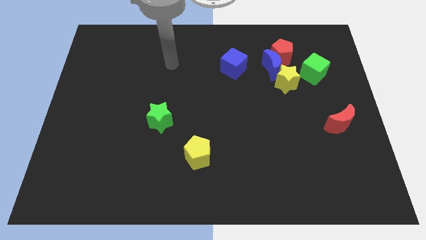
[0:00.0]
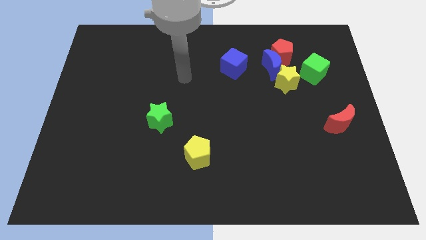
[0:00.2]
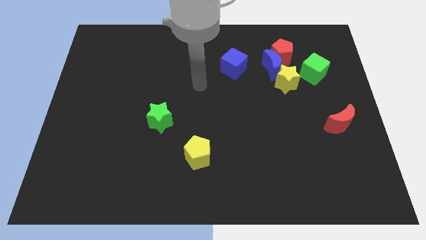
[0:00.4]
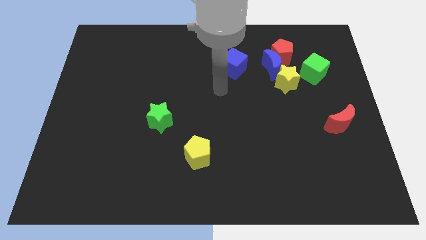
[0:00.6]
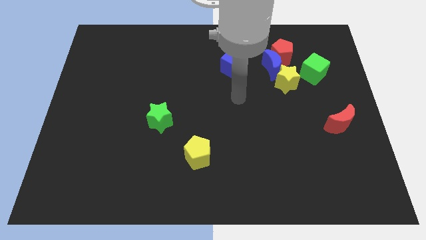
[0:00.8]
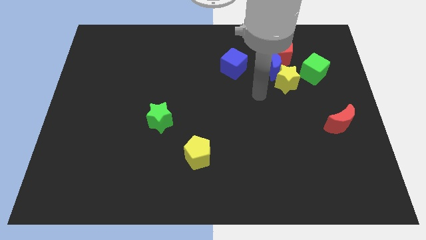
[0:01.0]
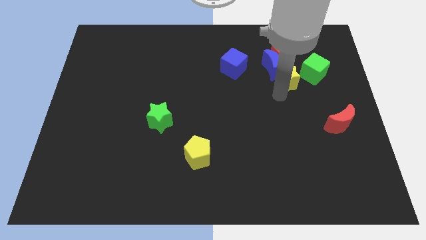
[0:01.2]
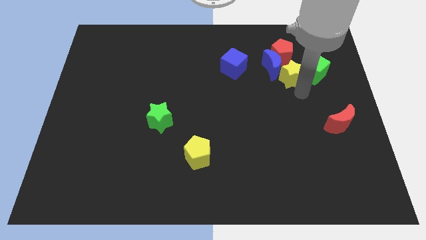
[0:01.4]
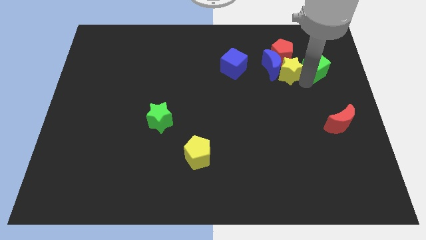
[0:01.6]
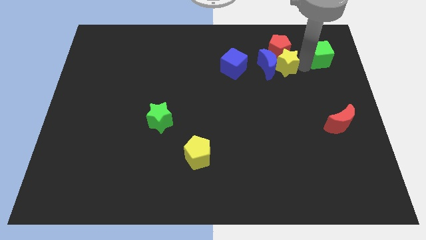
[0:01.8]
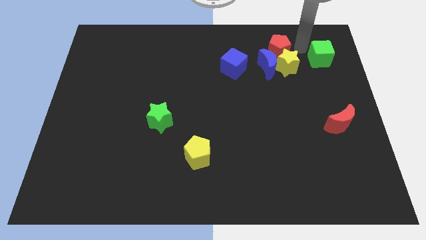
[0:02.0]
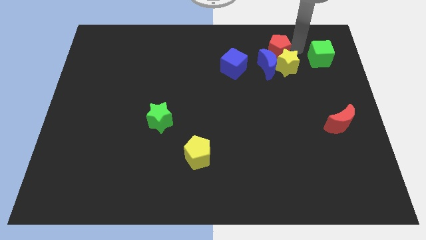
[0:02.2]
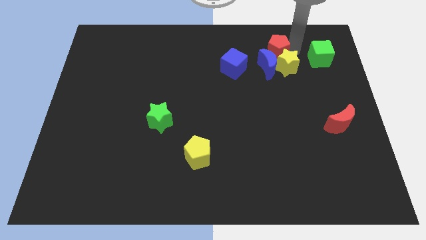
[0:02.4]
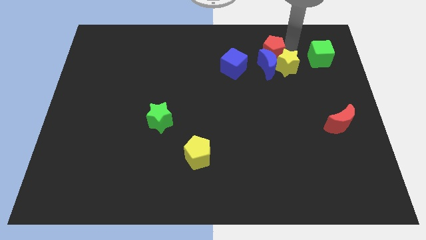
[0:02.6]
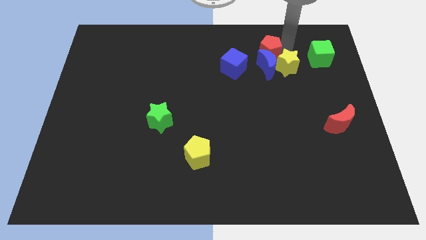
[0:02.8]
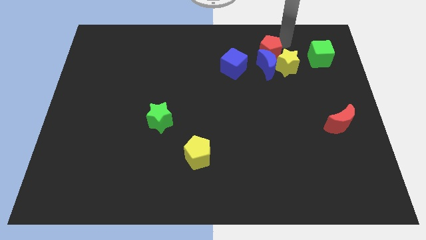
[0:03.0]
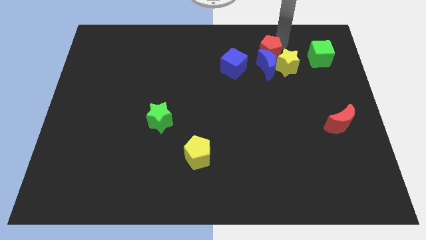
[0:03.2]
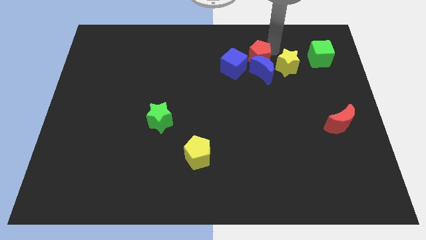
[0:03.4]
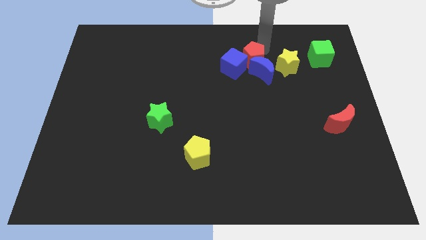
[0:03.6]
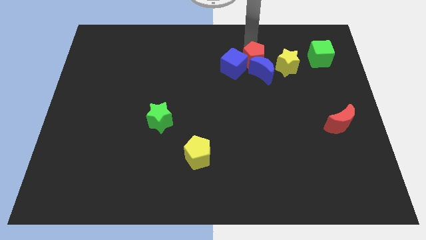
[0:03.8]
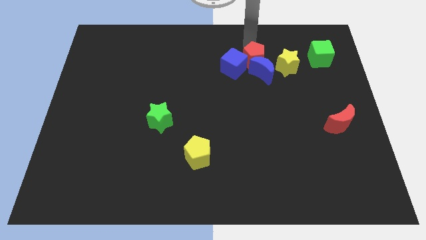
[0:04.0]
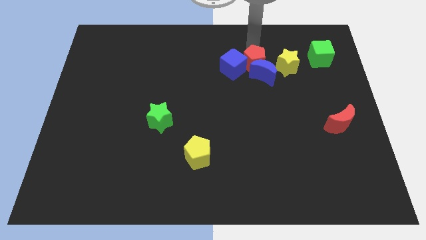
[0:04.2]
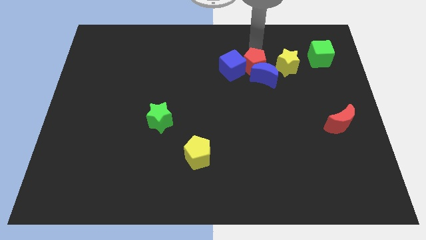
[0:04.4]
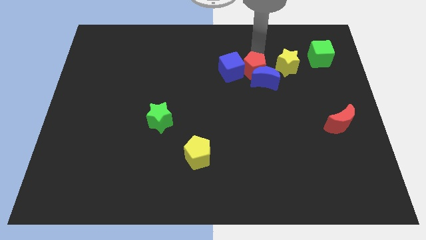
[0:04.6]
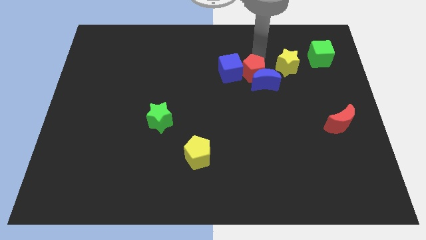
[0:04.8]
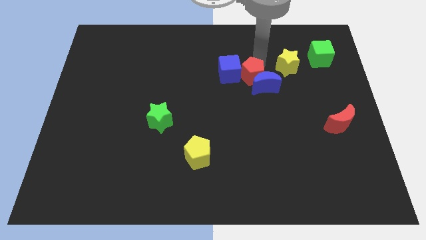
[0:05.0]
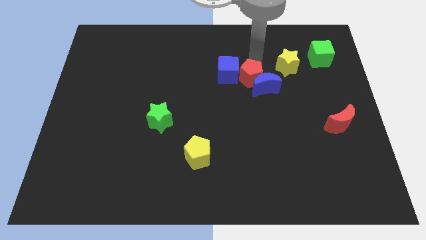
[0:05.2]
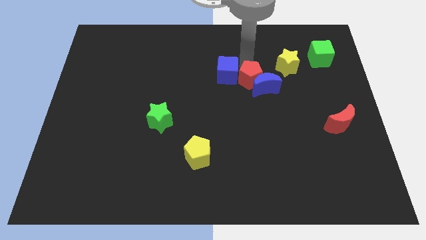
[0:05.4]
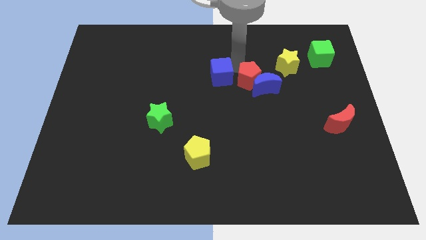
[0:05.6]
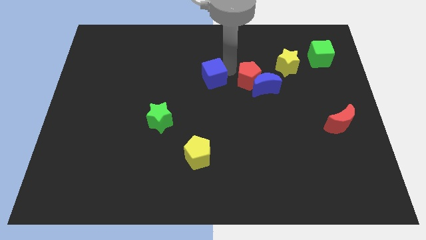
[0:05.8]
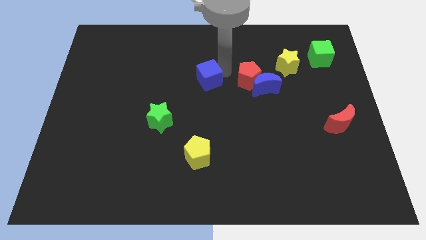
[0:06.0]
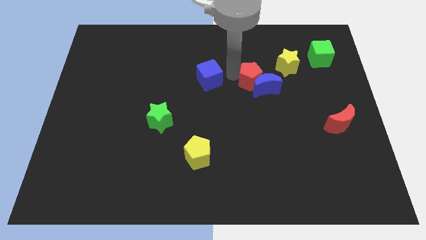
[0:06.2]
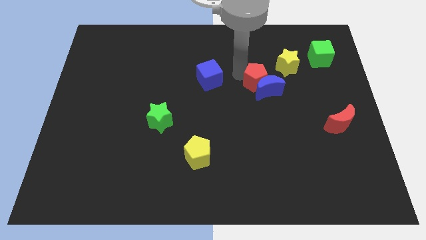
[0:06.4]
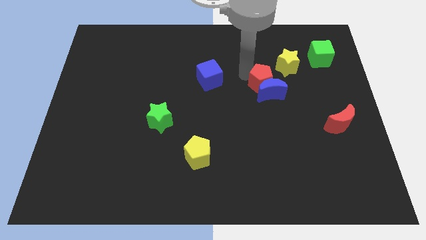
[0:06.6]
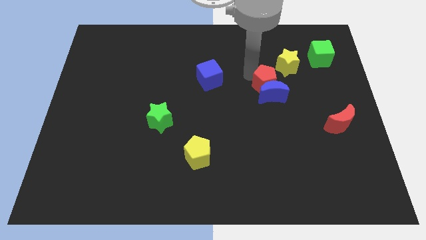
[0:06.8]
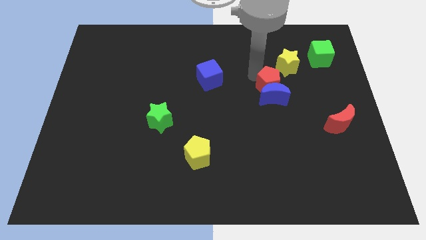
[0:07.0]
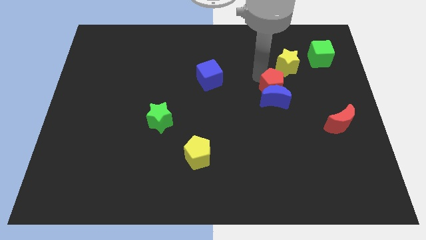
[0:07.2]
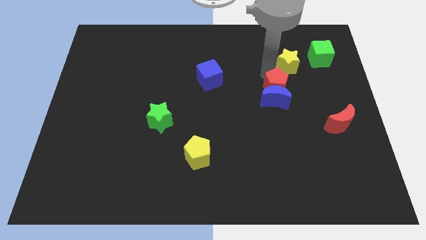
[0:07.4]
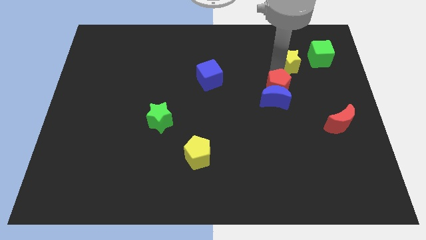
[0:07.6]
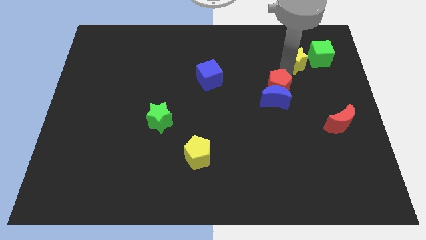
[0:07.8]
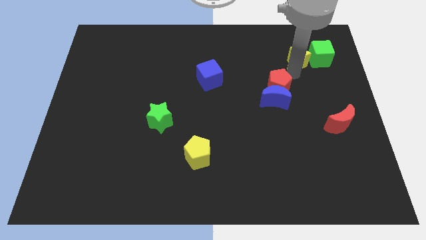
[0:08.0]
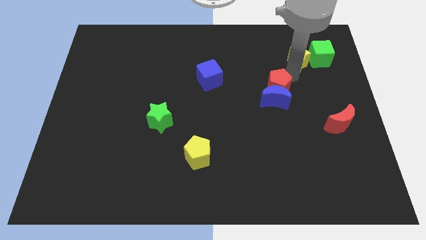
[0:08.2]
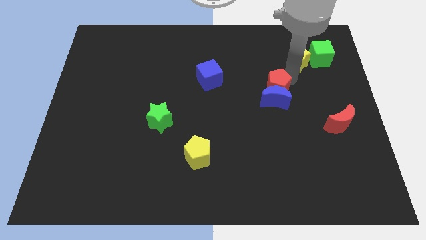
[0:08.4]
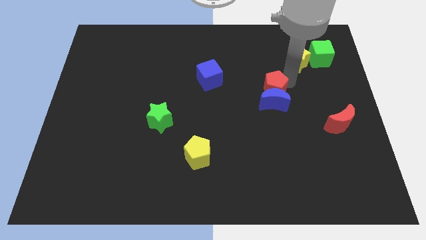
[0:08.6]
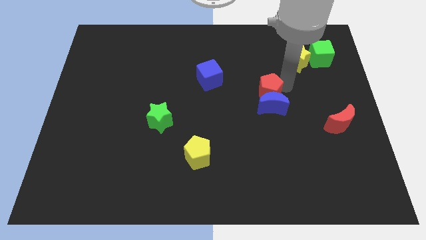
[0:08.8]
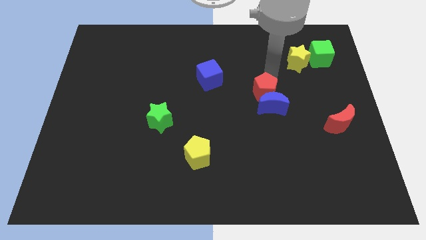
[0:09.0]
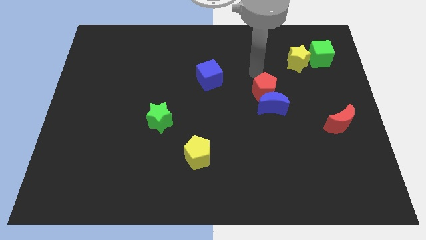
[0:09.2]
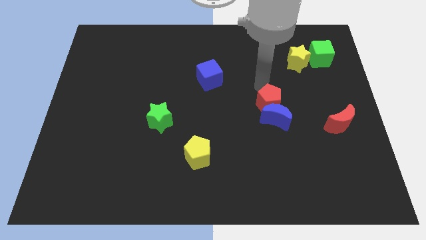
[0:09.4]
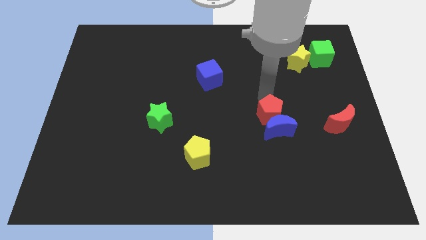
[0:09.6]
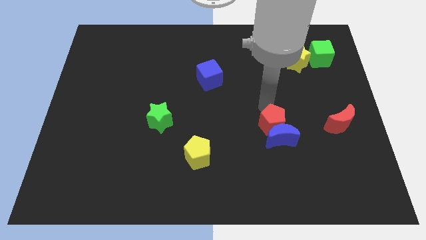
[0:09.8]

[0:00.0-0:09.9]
move the red pentagon downwards

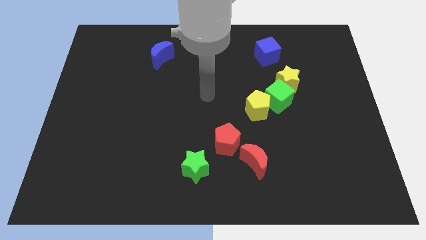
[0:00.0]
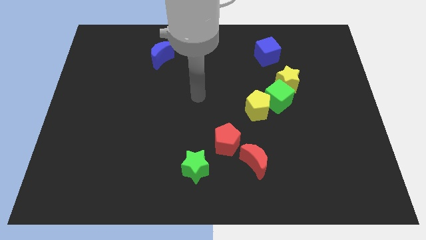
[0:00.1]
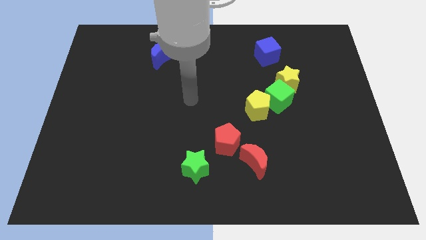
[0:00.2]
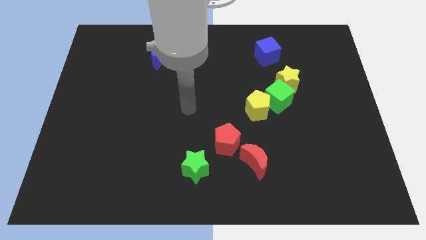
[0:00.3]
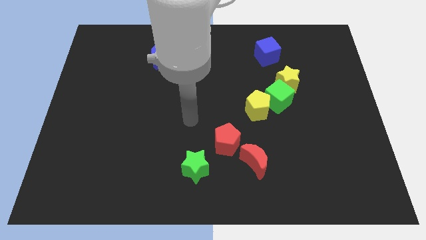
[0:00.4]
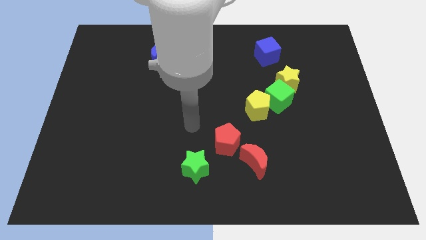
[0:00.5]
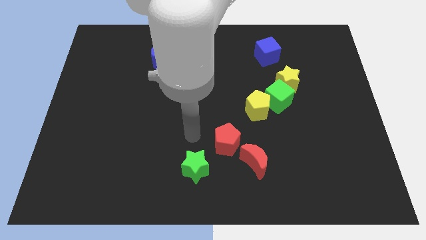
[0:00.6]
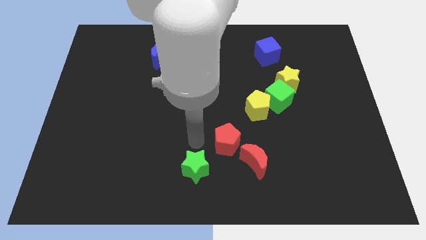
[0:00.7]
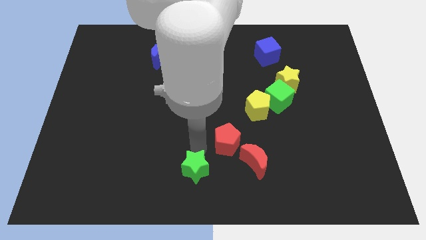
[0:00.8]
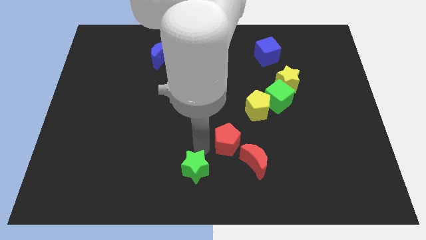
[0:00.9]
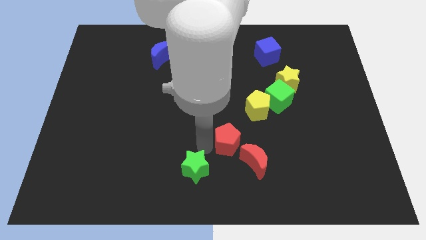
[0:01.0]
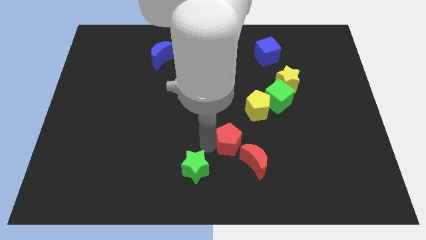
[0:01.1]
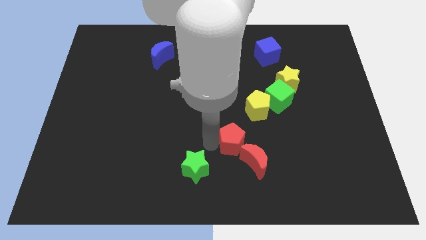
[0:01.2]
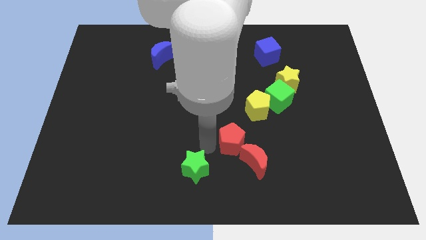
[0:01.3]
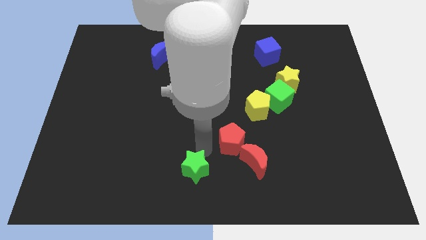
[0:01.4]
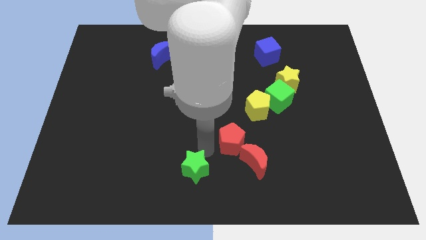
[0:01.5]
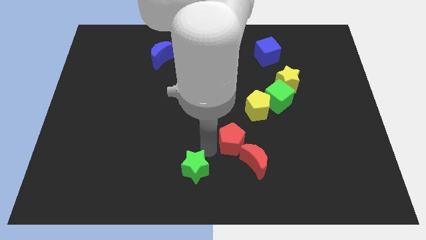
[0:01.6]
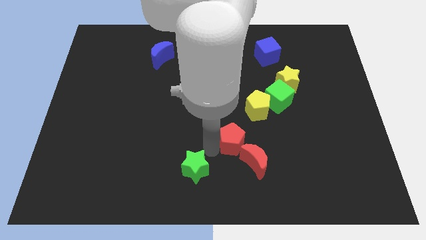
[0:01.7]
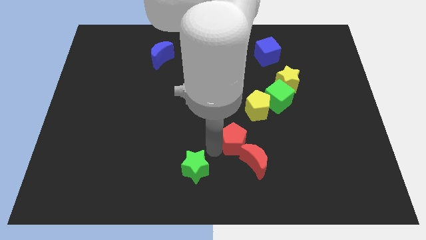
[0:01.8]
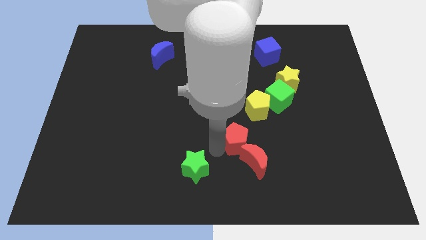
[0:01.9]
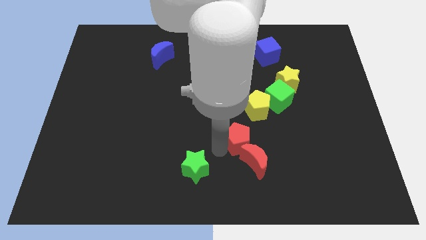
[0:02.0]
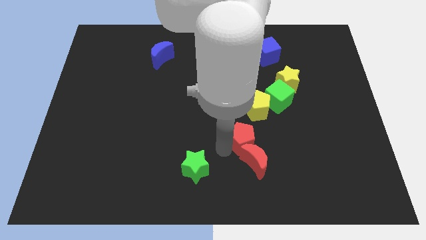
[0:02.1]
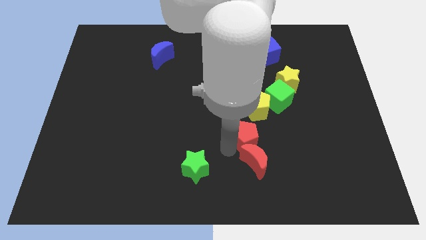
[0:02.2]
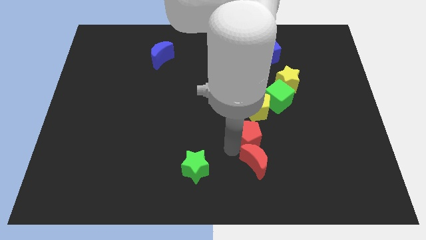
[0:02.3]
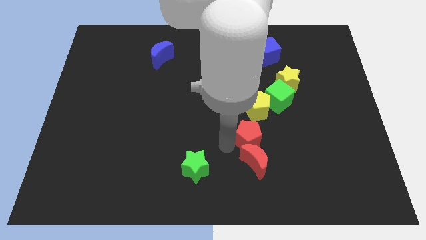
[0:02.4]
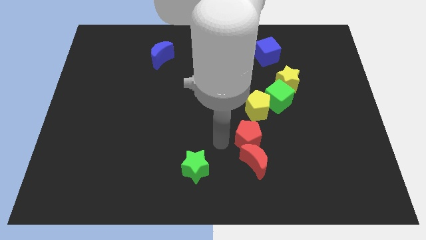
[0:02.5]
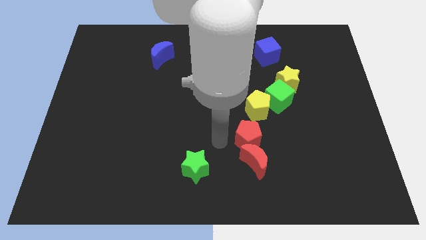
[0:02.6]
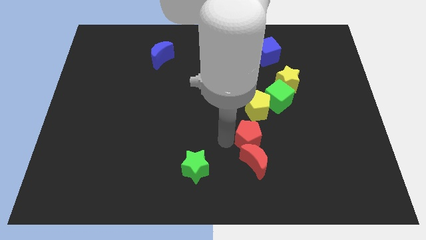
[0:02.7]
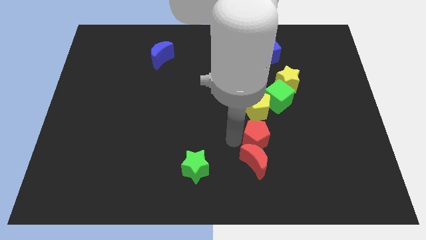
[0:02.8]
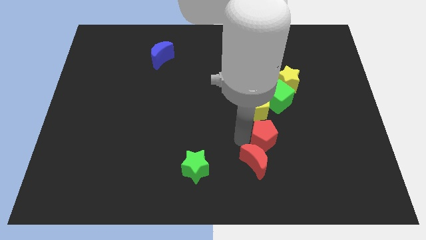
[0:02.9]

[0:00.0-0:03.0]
push the red pentagon right a bit
